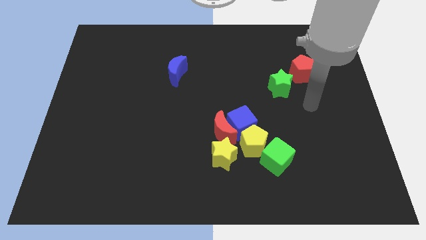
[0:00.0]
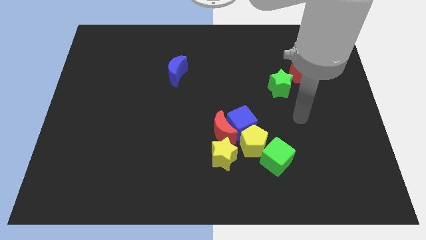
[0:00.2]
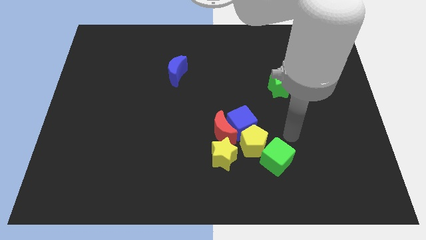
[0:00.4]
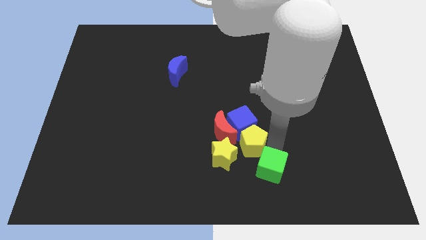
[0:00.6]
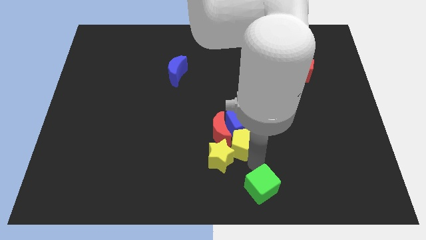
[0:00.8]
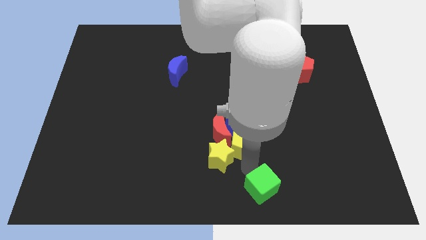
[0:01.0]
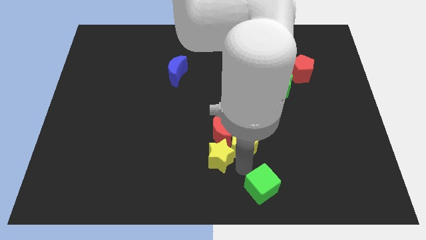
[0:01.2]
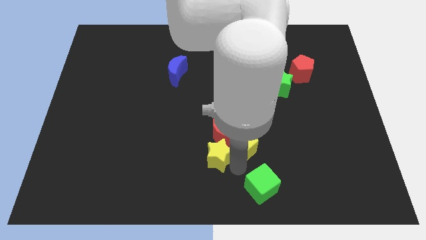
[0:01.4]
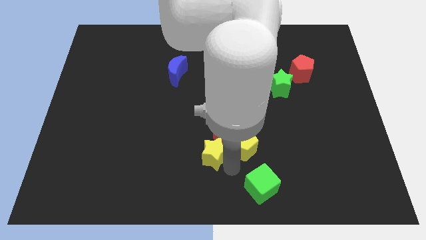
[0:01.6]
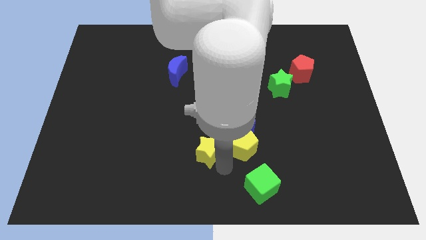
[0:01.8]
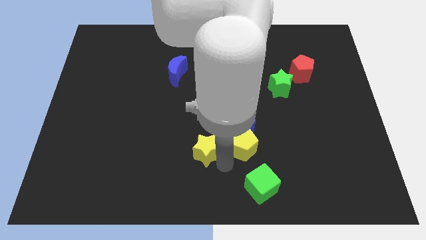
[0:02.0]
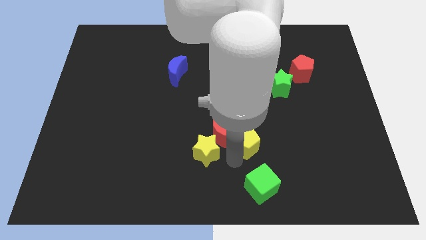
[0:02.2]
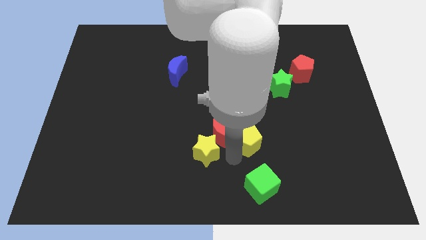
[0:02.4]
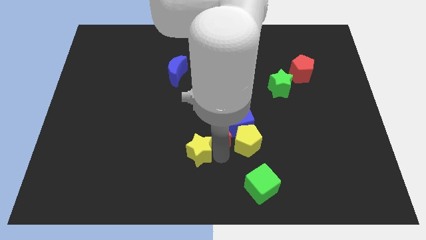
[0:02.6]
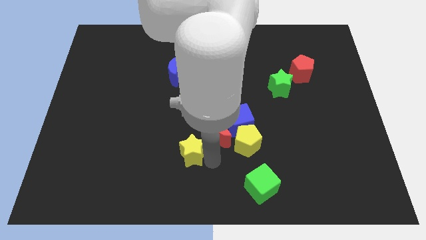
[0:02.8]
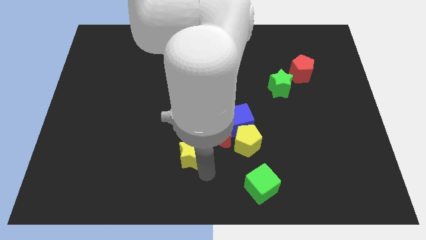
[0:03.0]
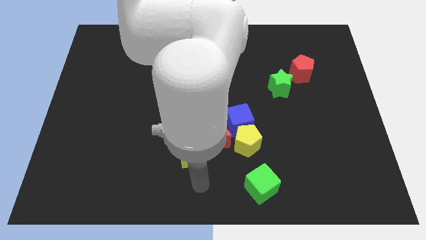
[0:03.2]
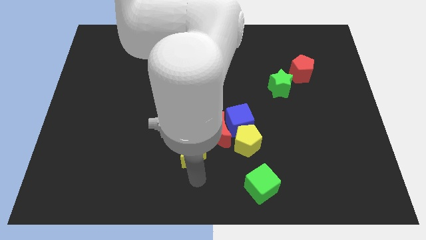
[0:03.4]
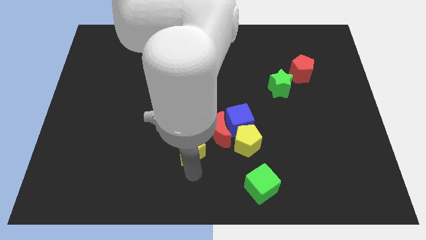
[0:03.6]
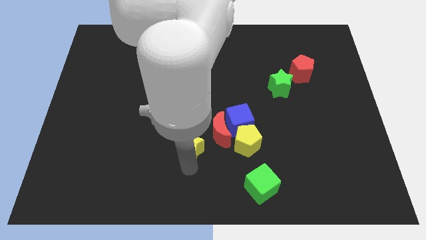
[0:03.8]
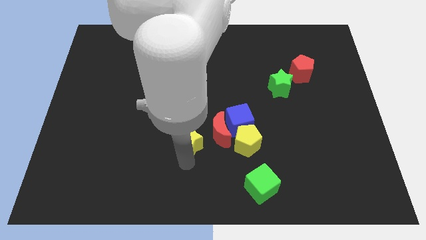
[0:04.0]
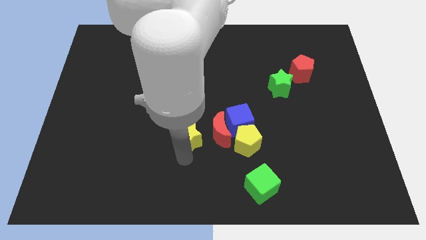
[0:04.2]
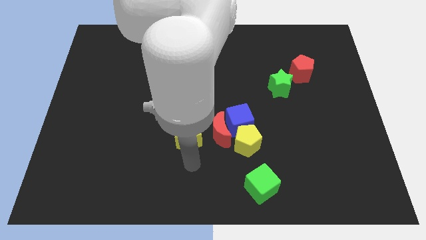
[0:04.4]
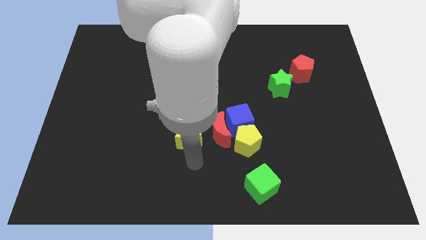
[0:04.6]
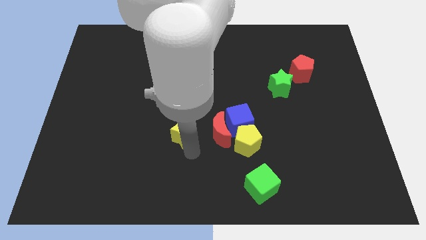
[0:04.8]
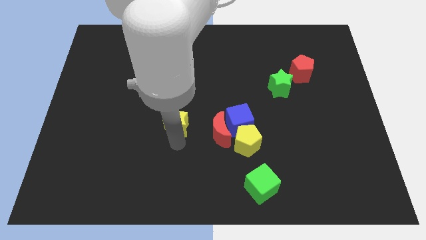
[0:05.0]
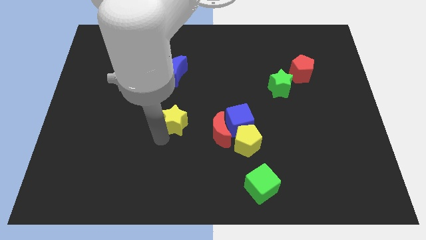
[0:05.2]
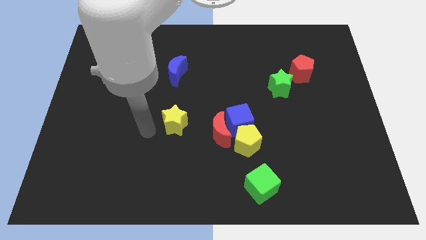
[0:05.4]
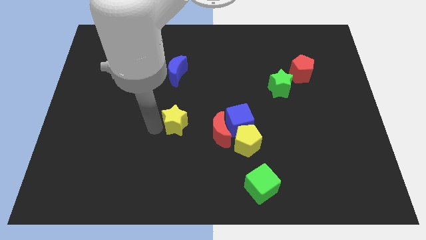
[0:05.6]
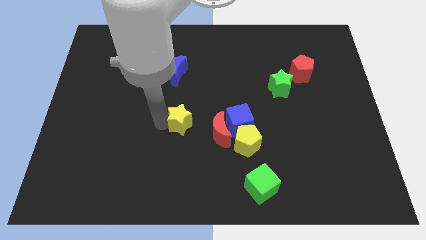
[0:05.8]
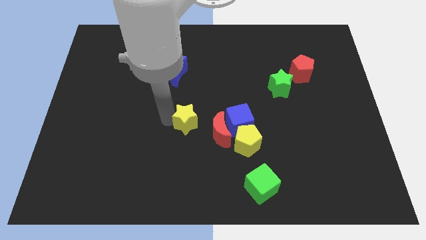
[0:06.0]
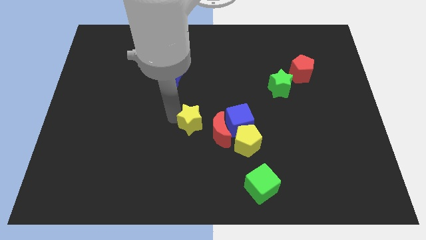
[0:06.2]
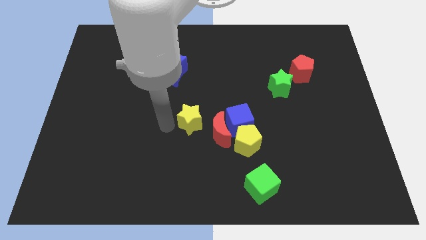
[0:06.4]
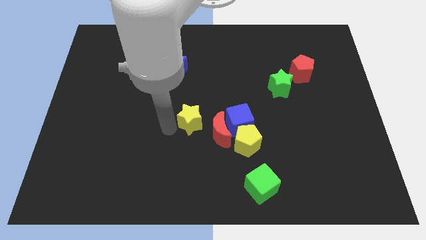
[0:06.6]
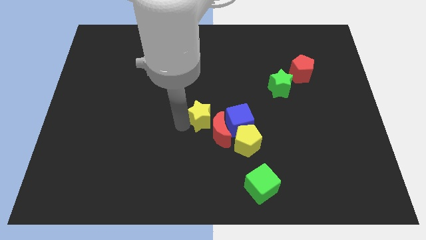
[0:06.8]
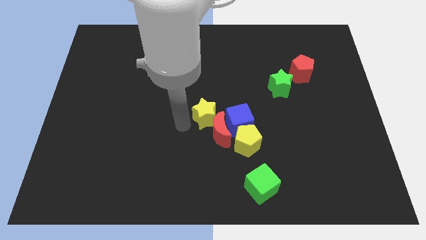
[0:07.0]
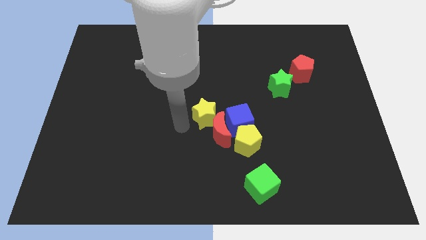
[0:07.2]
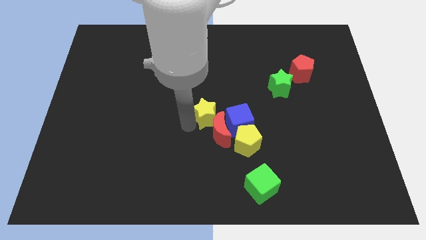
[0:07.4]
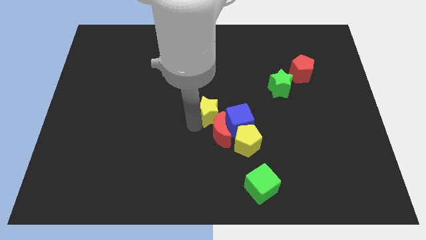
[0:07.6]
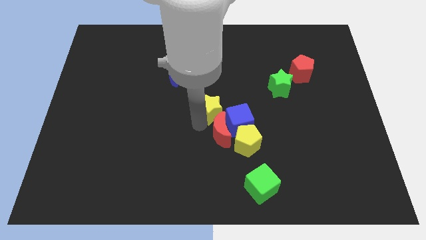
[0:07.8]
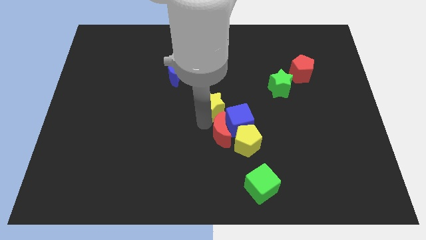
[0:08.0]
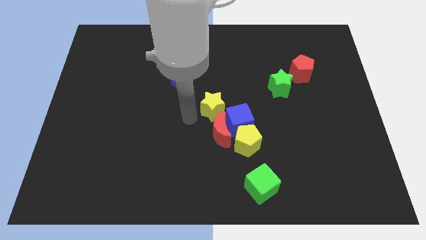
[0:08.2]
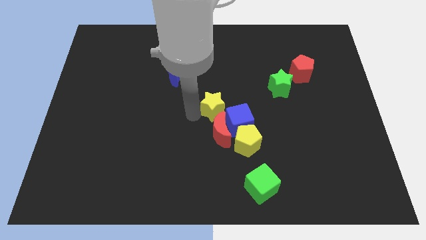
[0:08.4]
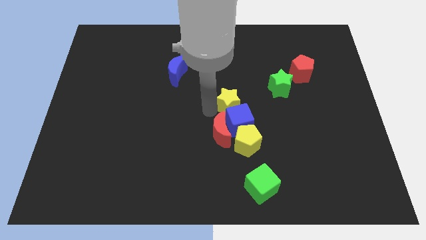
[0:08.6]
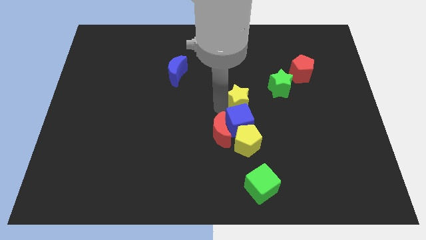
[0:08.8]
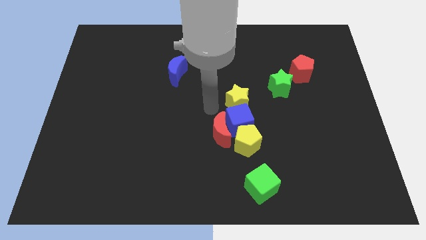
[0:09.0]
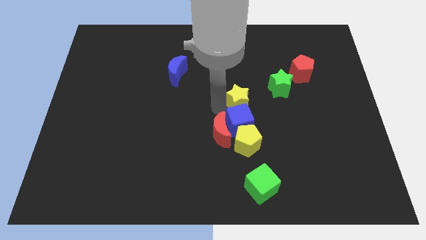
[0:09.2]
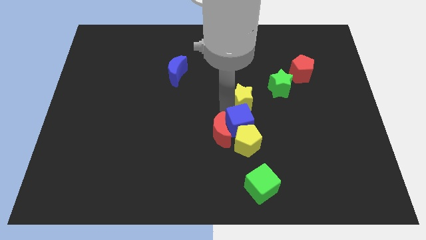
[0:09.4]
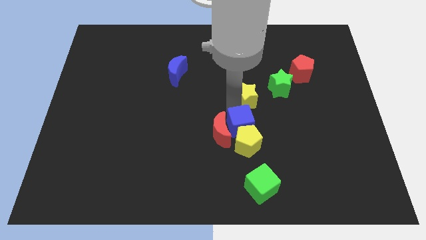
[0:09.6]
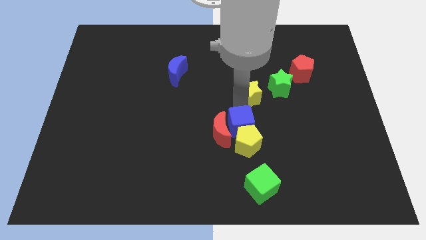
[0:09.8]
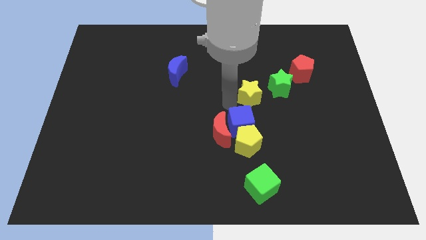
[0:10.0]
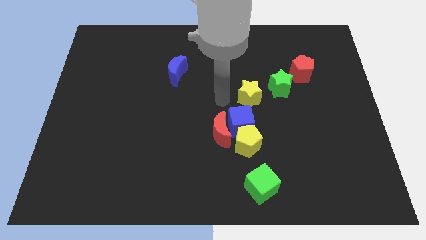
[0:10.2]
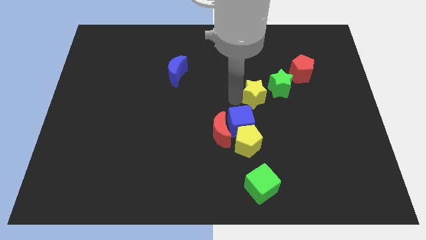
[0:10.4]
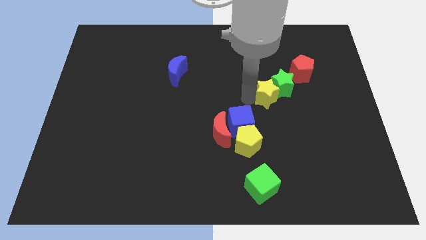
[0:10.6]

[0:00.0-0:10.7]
put the yellow star close to the green star

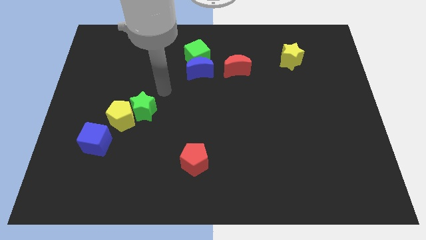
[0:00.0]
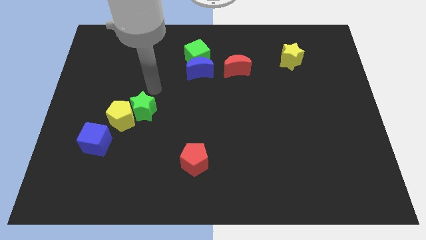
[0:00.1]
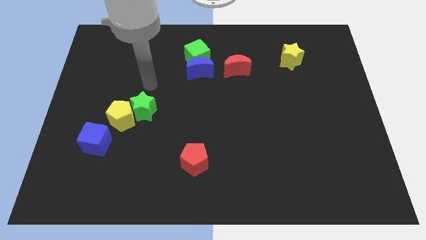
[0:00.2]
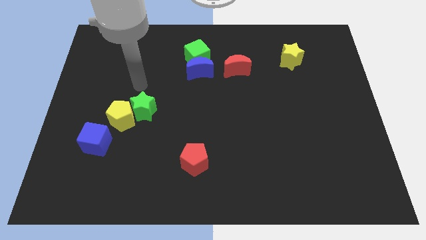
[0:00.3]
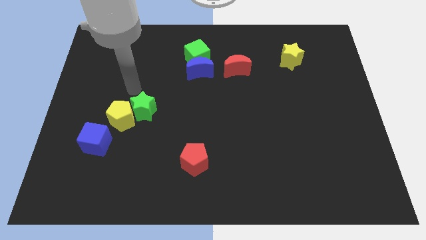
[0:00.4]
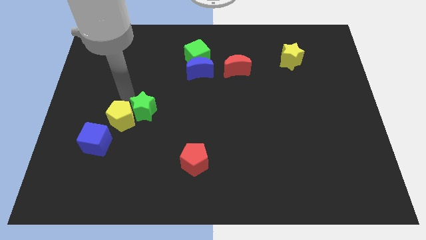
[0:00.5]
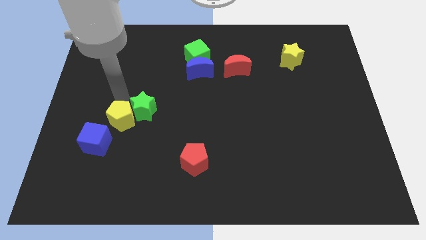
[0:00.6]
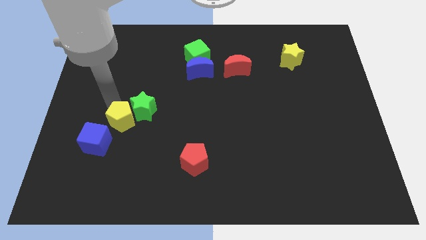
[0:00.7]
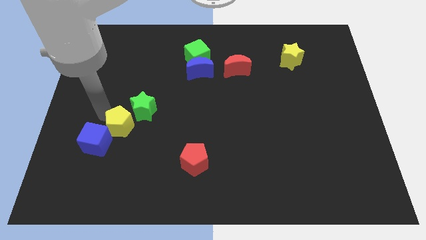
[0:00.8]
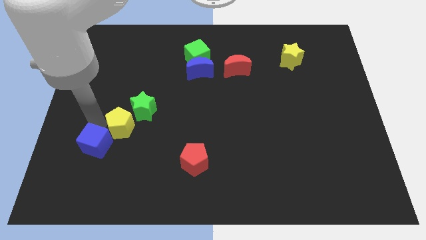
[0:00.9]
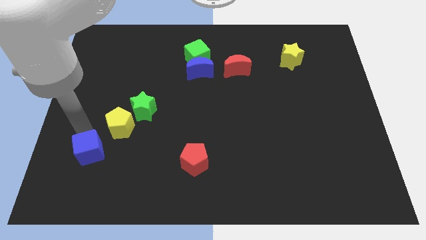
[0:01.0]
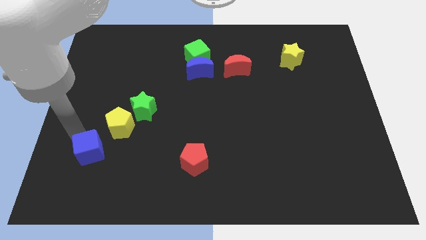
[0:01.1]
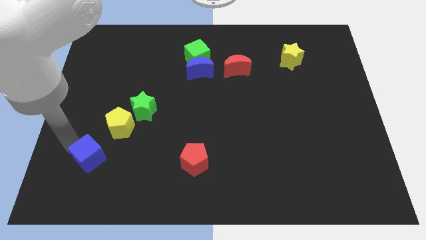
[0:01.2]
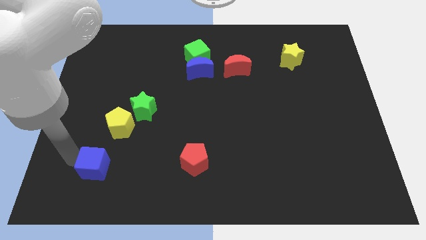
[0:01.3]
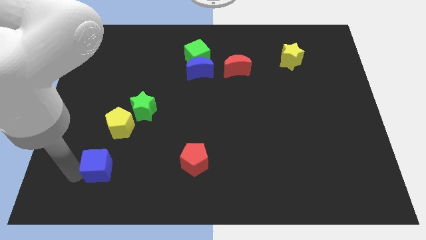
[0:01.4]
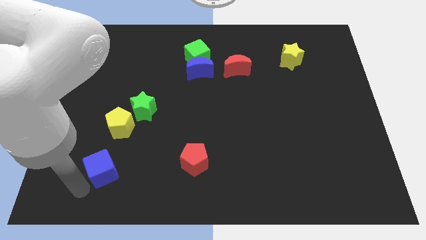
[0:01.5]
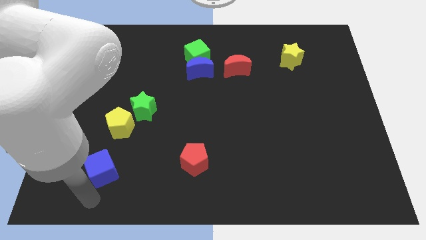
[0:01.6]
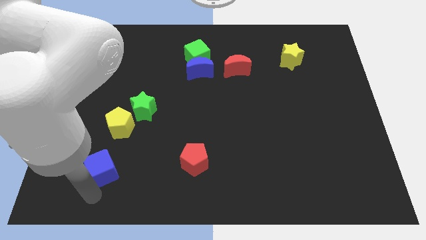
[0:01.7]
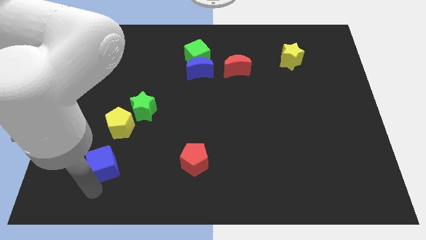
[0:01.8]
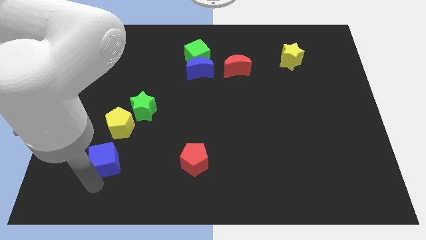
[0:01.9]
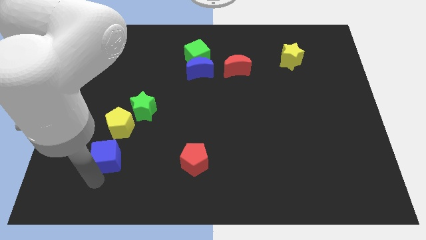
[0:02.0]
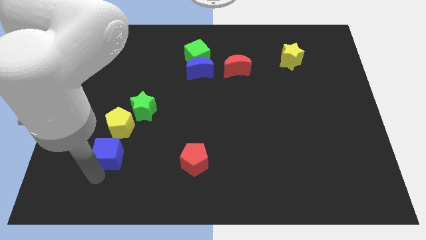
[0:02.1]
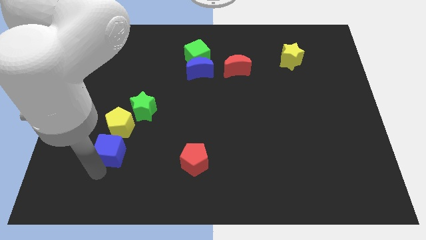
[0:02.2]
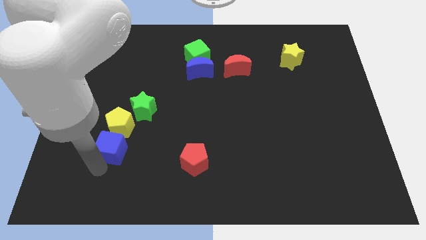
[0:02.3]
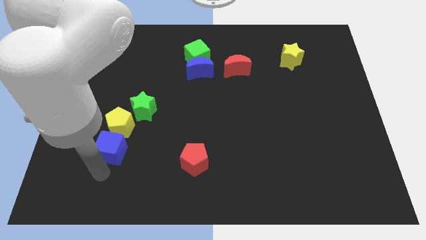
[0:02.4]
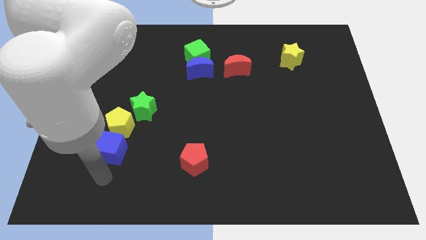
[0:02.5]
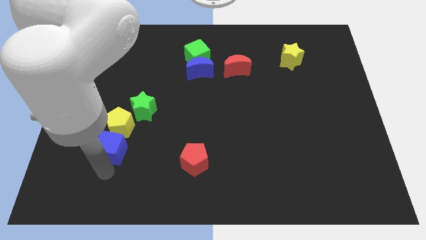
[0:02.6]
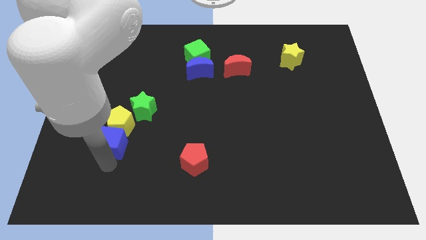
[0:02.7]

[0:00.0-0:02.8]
slide the blue cube towards the yellow pentagon
